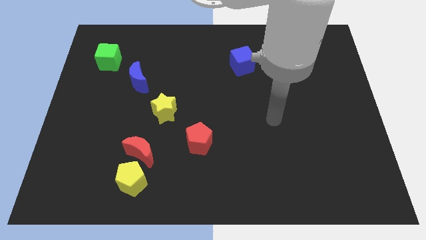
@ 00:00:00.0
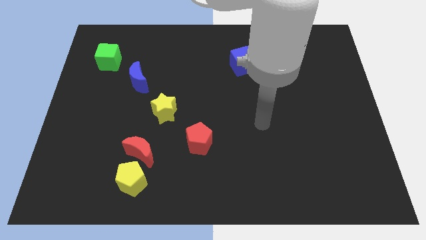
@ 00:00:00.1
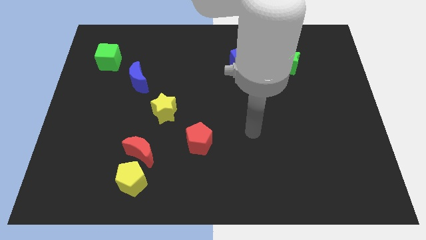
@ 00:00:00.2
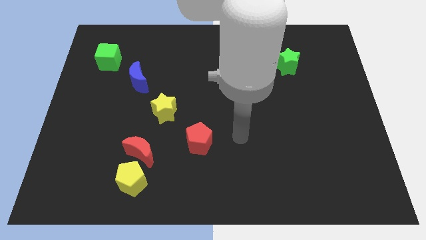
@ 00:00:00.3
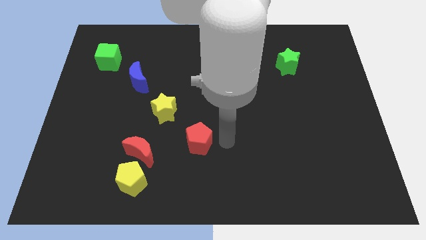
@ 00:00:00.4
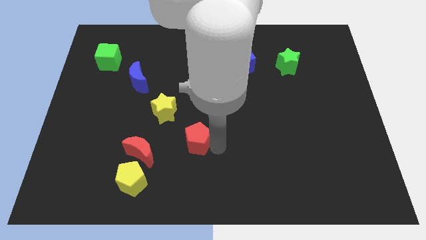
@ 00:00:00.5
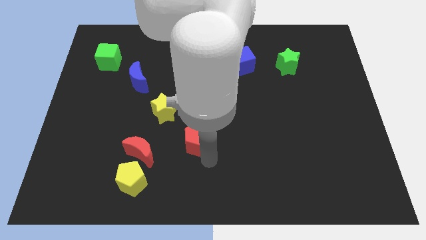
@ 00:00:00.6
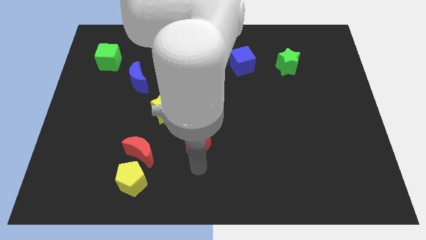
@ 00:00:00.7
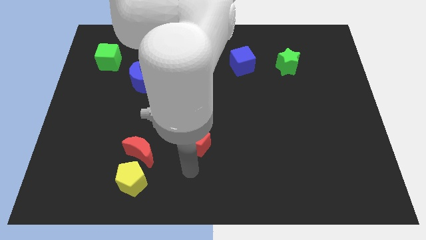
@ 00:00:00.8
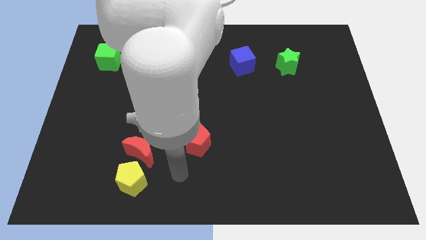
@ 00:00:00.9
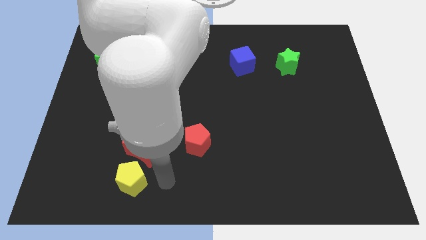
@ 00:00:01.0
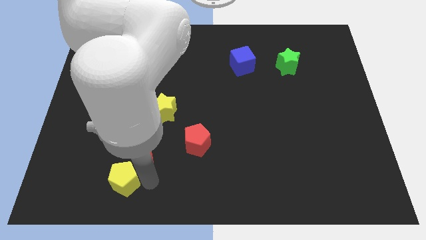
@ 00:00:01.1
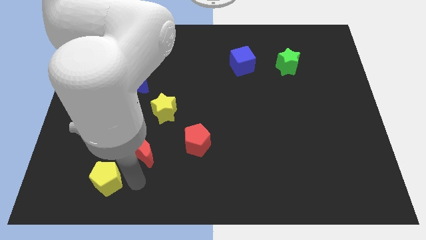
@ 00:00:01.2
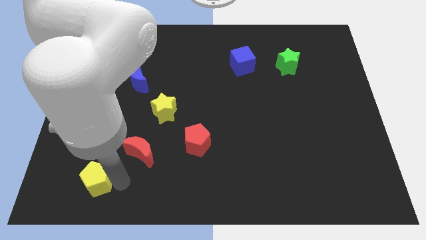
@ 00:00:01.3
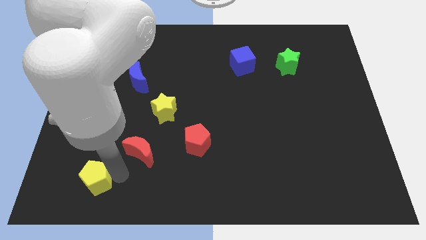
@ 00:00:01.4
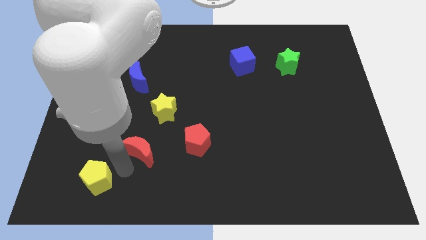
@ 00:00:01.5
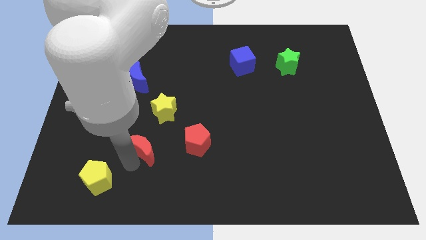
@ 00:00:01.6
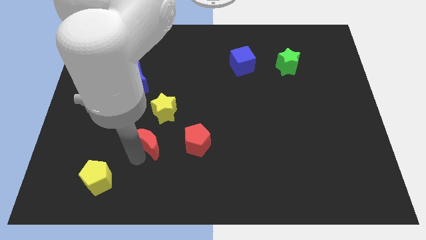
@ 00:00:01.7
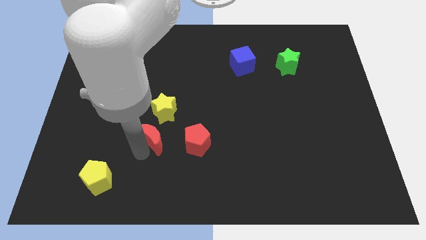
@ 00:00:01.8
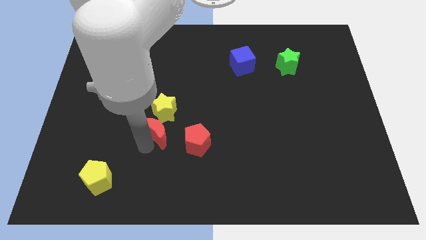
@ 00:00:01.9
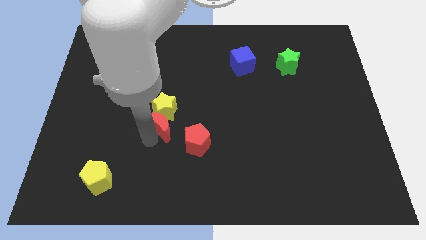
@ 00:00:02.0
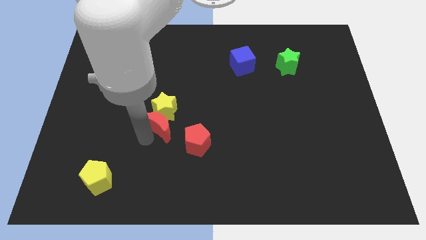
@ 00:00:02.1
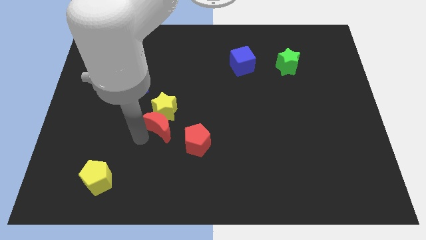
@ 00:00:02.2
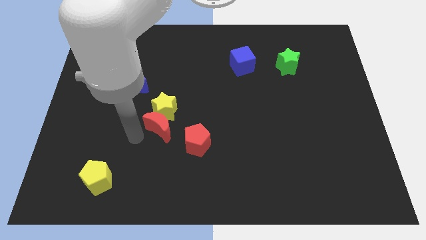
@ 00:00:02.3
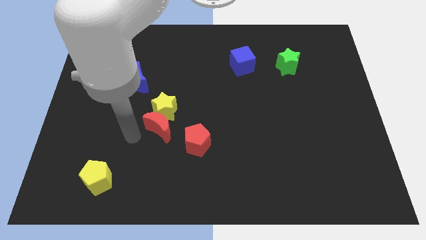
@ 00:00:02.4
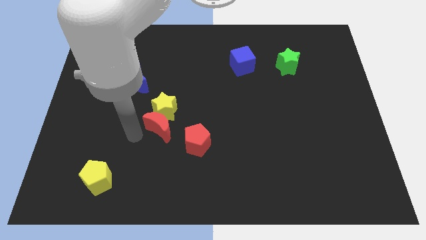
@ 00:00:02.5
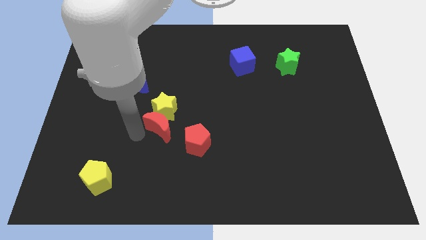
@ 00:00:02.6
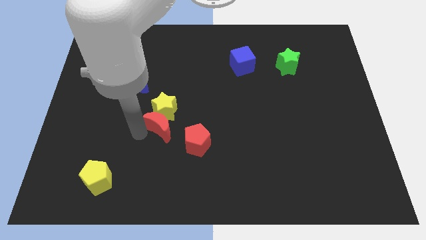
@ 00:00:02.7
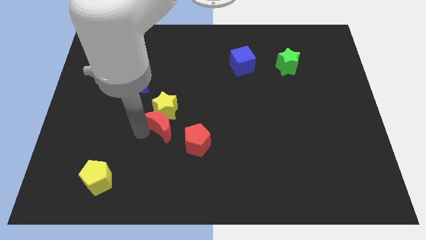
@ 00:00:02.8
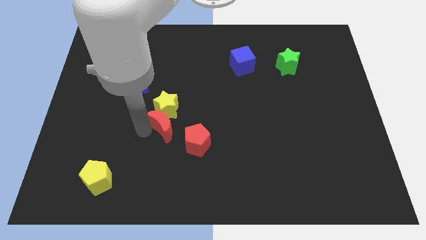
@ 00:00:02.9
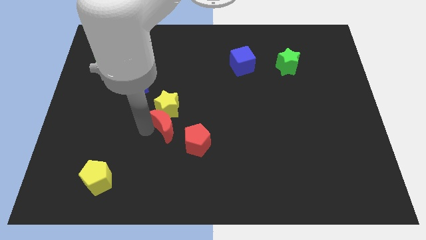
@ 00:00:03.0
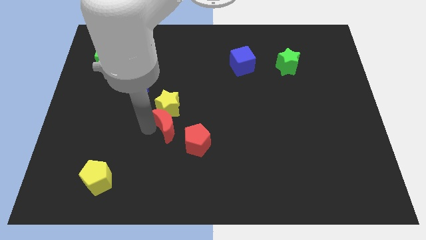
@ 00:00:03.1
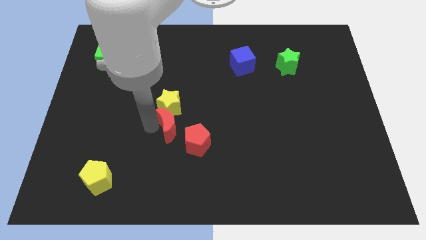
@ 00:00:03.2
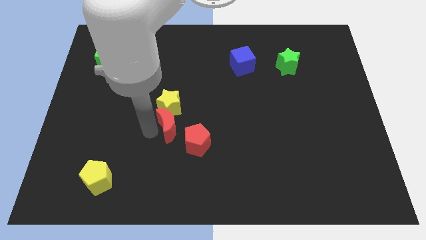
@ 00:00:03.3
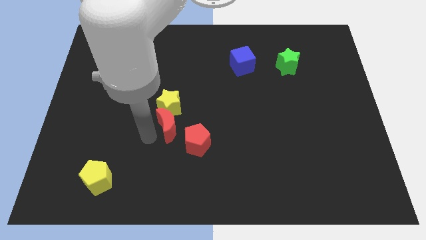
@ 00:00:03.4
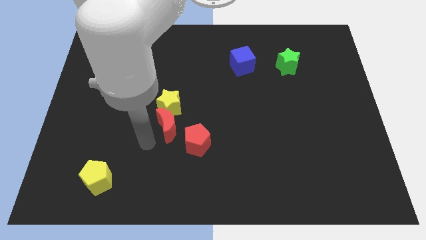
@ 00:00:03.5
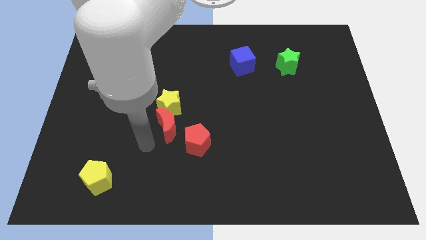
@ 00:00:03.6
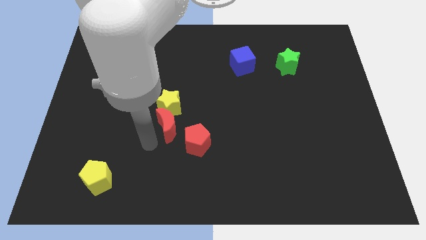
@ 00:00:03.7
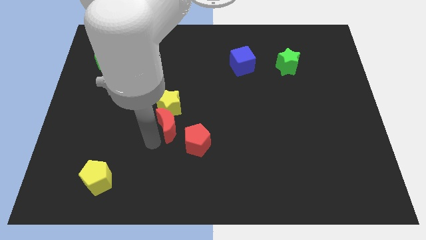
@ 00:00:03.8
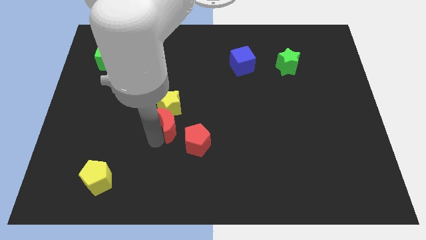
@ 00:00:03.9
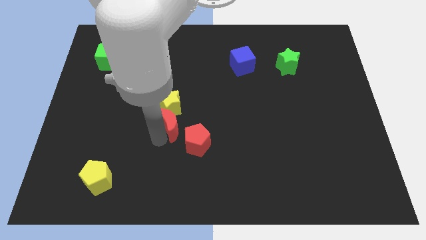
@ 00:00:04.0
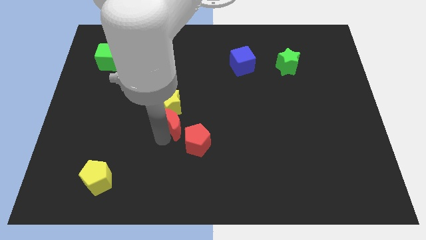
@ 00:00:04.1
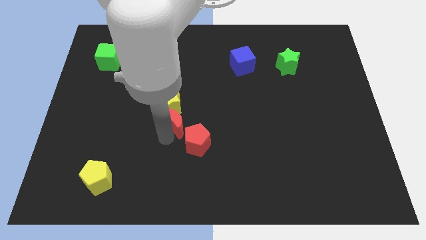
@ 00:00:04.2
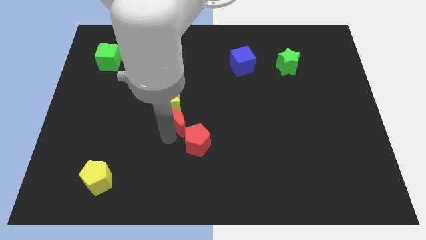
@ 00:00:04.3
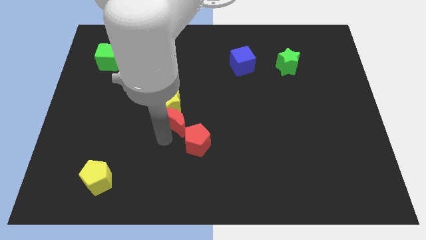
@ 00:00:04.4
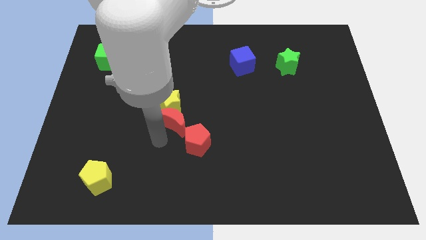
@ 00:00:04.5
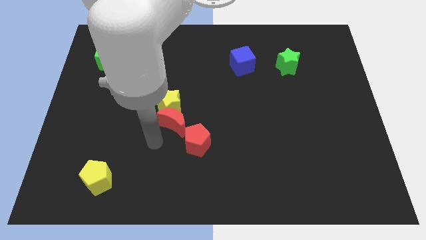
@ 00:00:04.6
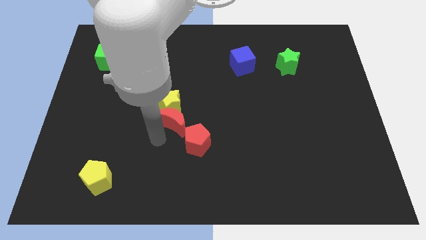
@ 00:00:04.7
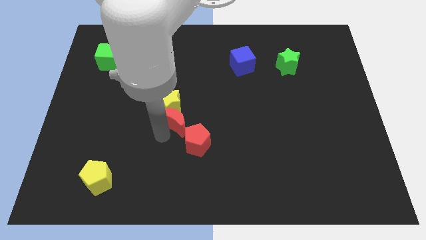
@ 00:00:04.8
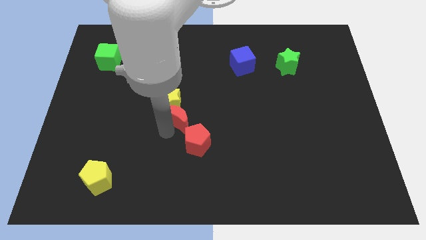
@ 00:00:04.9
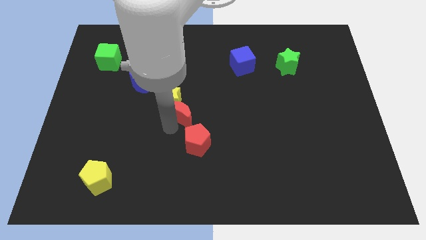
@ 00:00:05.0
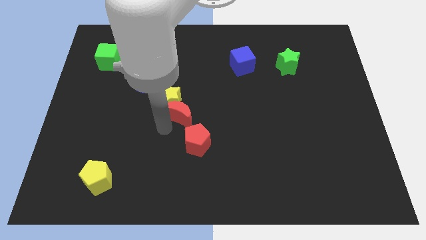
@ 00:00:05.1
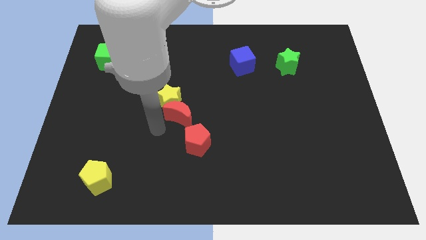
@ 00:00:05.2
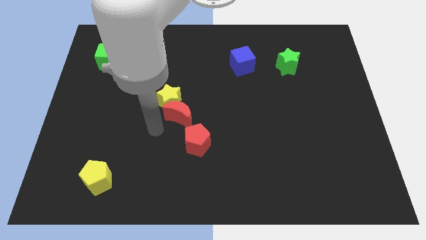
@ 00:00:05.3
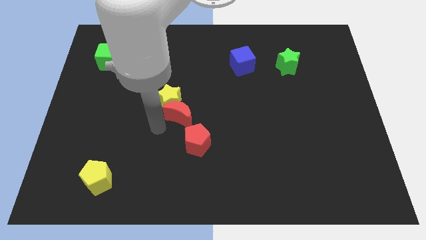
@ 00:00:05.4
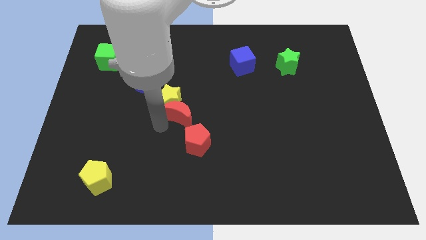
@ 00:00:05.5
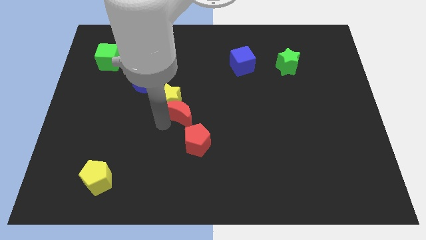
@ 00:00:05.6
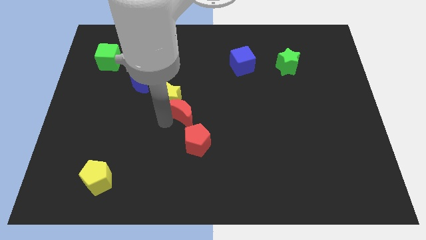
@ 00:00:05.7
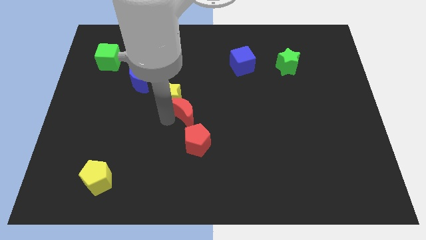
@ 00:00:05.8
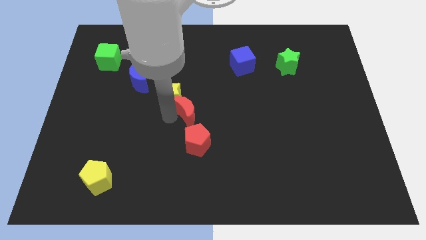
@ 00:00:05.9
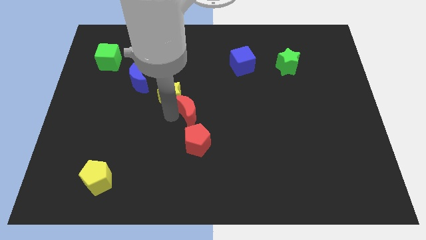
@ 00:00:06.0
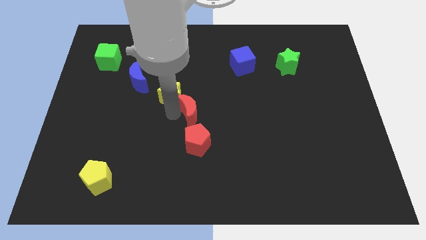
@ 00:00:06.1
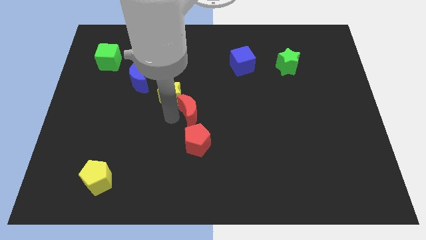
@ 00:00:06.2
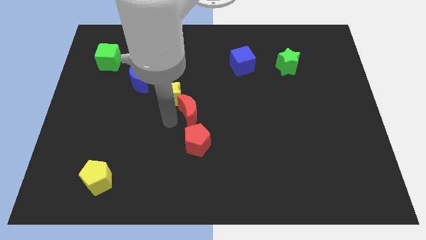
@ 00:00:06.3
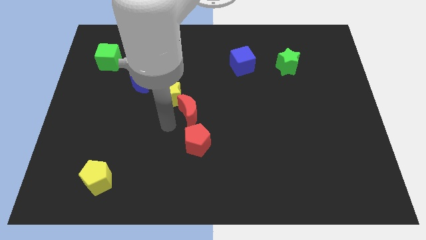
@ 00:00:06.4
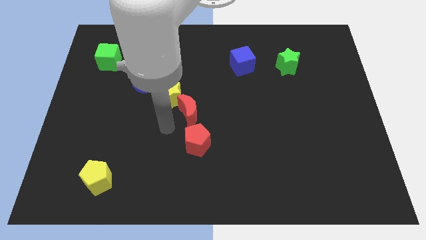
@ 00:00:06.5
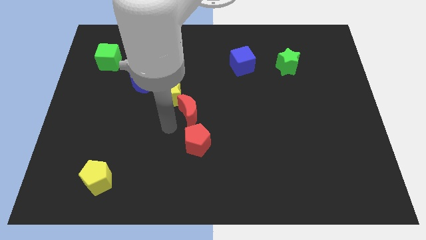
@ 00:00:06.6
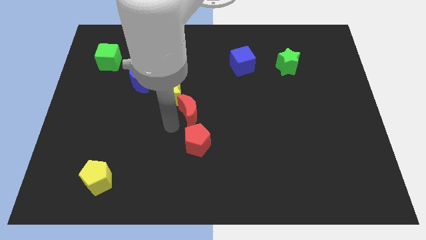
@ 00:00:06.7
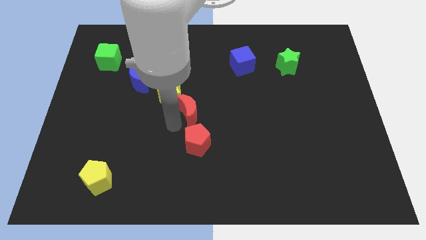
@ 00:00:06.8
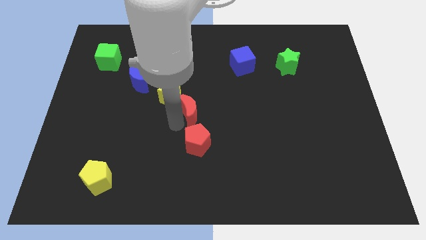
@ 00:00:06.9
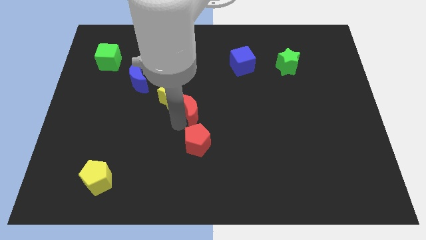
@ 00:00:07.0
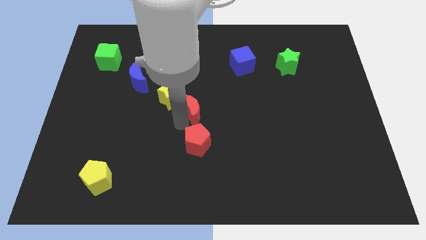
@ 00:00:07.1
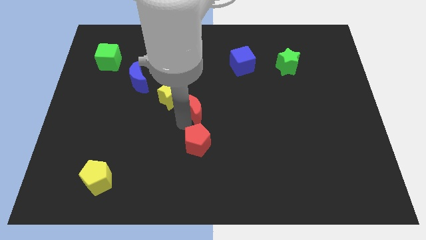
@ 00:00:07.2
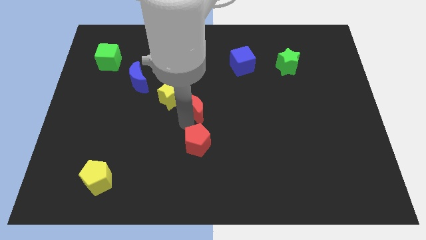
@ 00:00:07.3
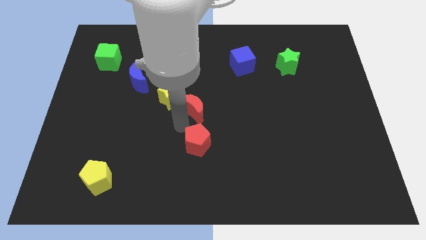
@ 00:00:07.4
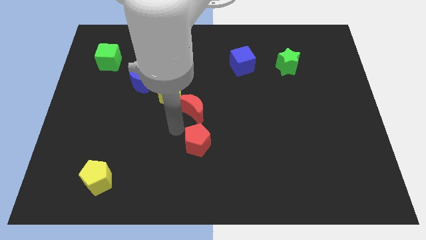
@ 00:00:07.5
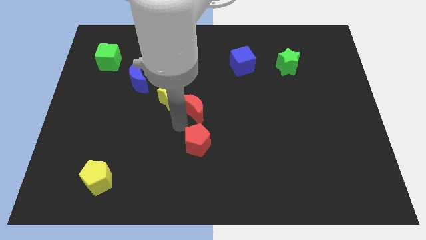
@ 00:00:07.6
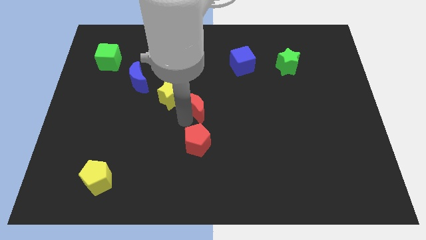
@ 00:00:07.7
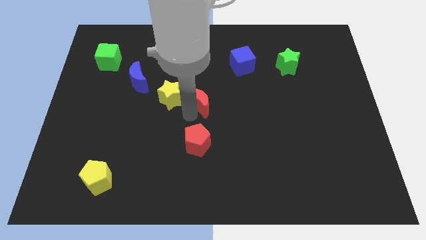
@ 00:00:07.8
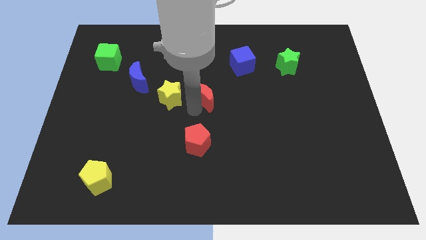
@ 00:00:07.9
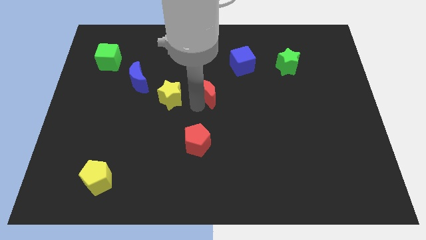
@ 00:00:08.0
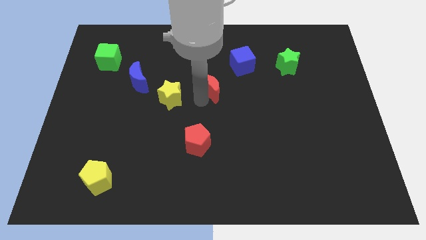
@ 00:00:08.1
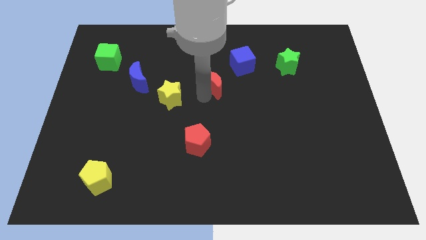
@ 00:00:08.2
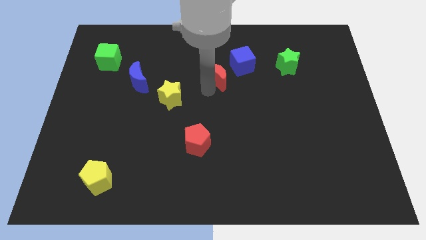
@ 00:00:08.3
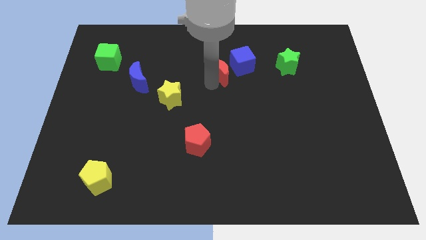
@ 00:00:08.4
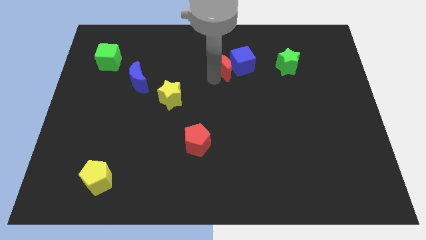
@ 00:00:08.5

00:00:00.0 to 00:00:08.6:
slide the red moon towards the blue cube
